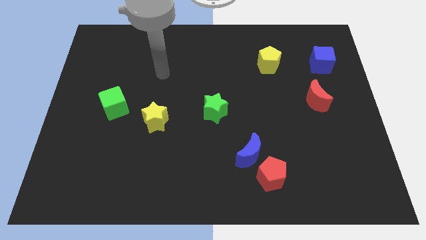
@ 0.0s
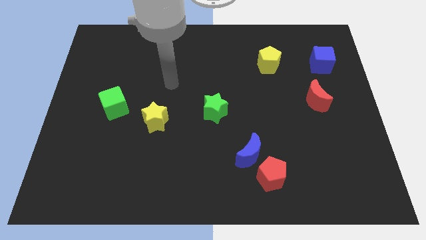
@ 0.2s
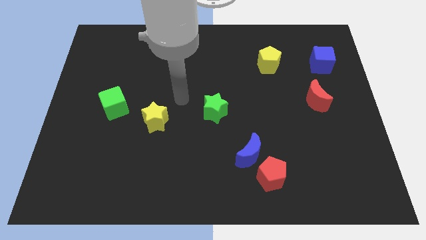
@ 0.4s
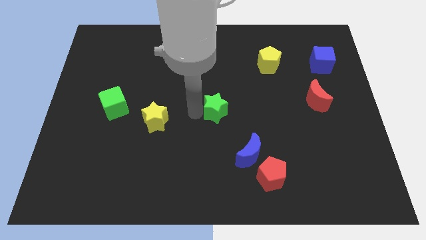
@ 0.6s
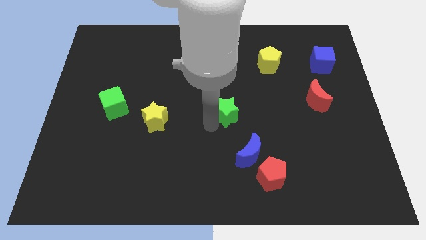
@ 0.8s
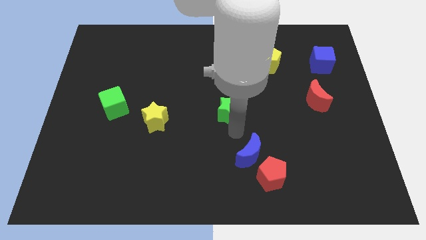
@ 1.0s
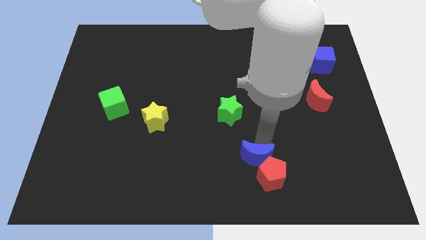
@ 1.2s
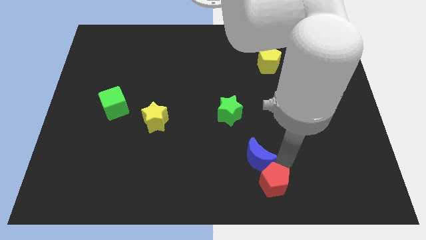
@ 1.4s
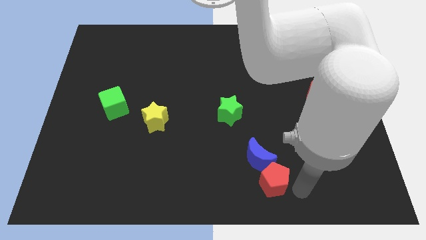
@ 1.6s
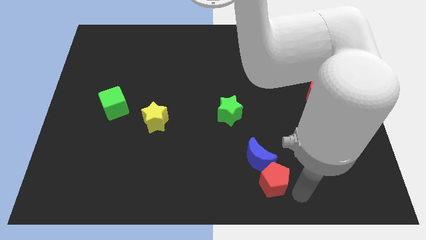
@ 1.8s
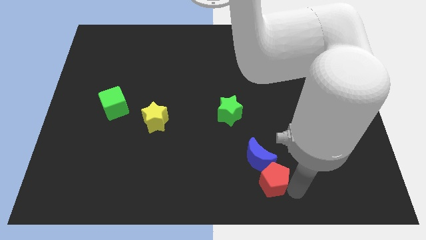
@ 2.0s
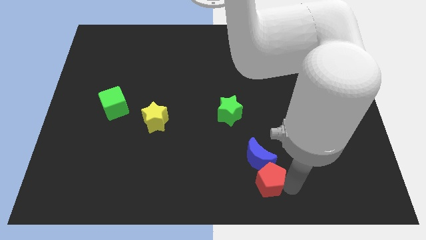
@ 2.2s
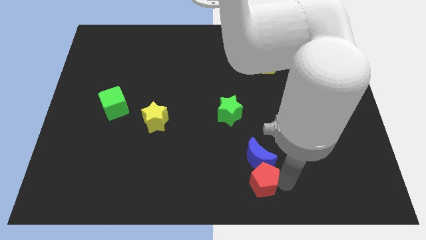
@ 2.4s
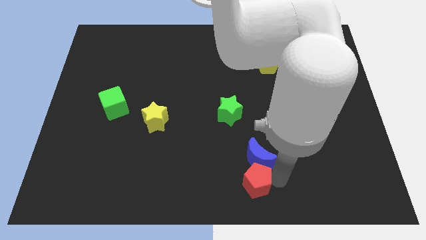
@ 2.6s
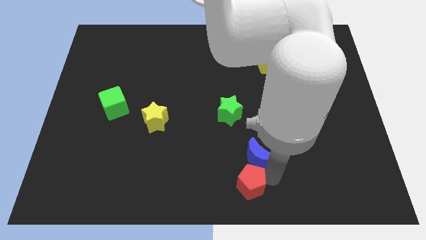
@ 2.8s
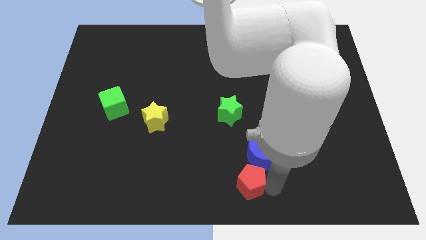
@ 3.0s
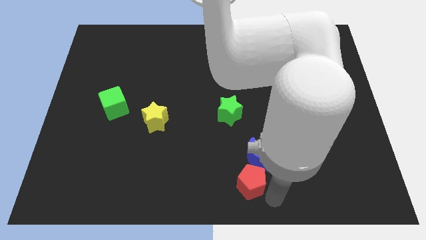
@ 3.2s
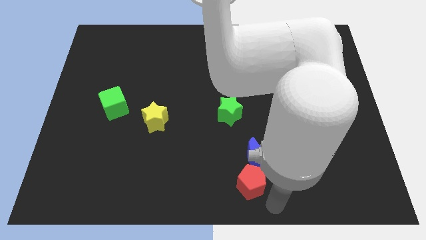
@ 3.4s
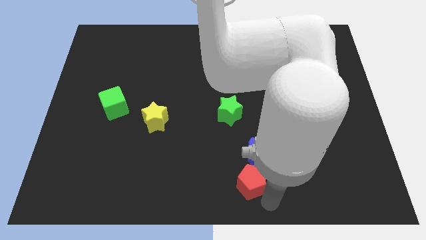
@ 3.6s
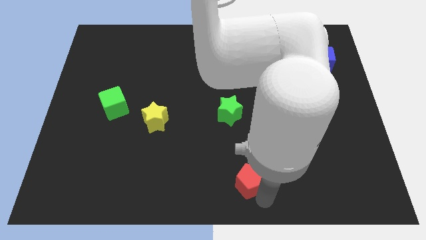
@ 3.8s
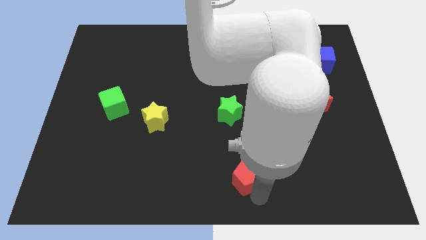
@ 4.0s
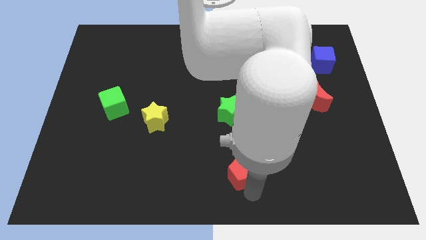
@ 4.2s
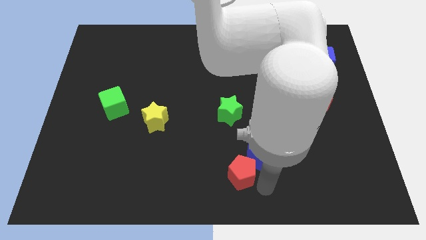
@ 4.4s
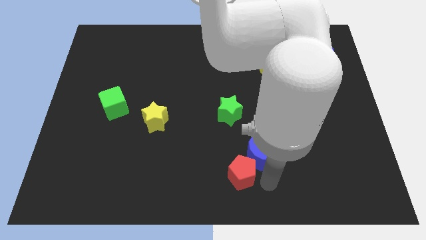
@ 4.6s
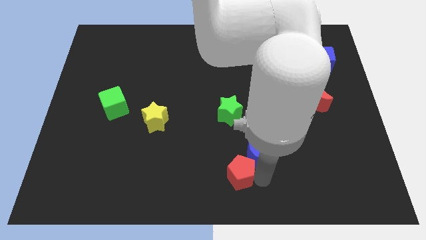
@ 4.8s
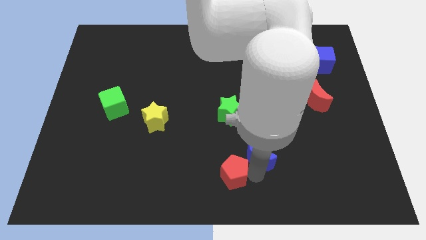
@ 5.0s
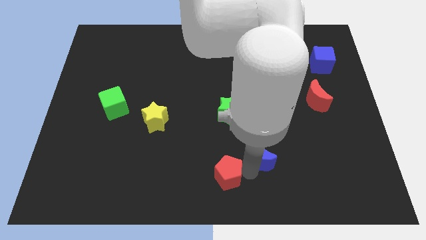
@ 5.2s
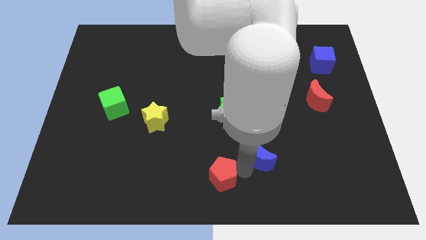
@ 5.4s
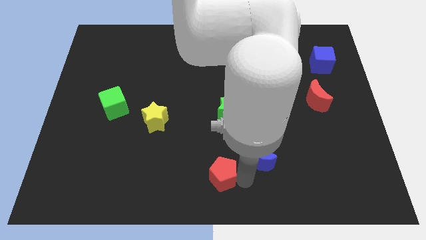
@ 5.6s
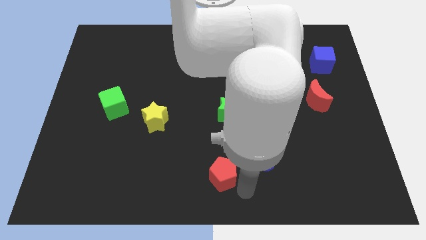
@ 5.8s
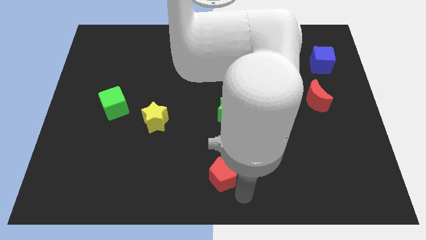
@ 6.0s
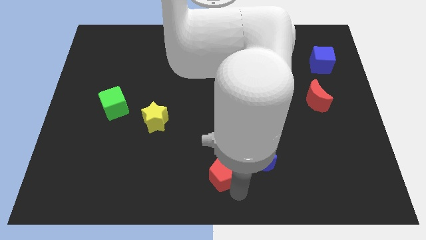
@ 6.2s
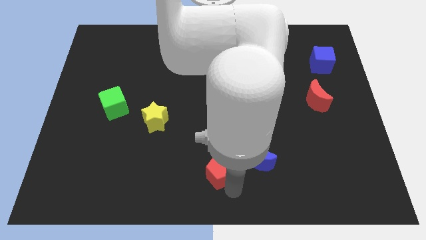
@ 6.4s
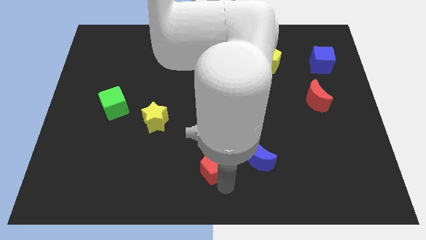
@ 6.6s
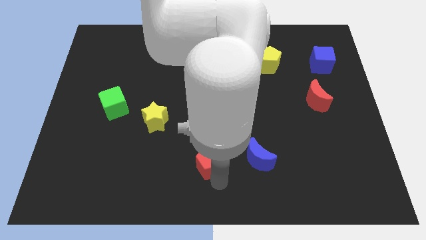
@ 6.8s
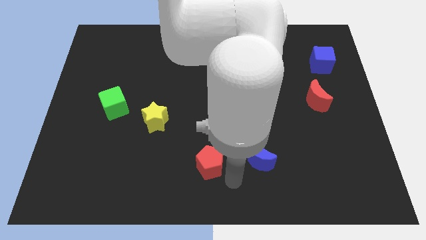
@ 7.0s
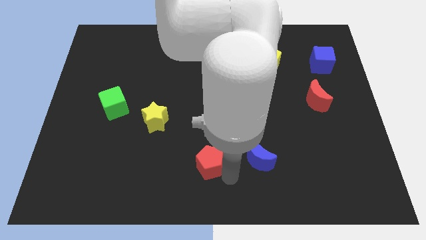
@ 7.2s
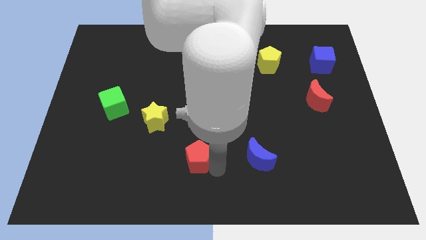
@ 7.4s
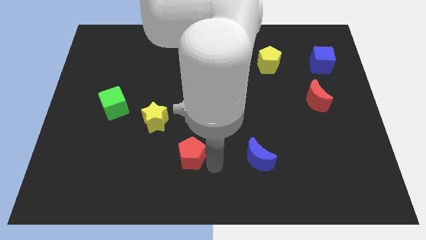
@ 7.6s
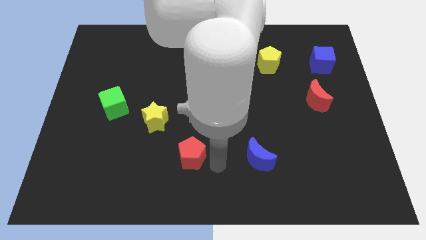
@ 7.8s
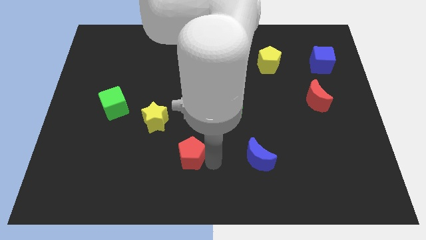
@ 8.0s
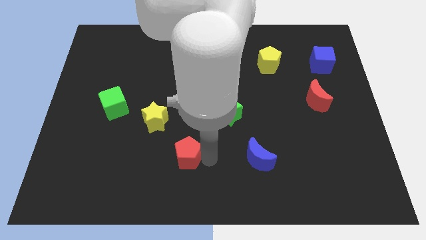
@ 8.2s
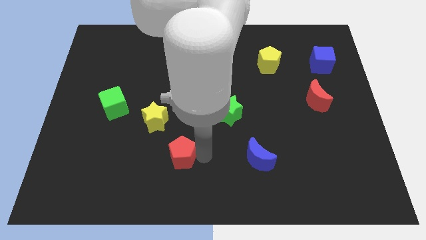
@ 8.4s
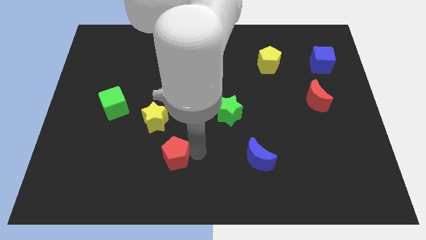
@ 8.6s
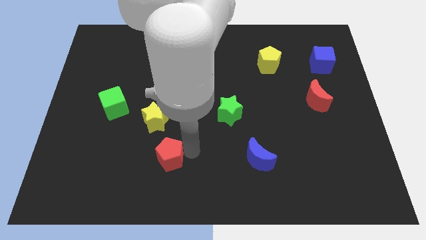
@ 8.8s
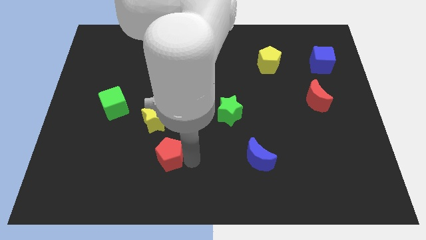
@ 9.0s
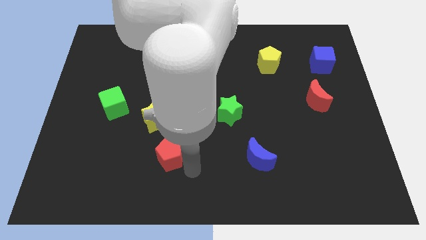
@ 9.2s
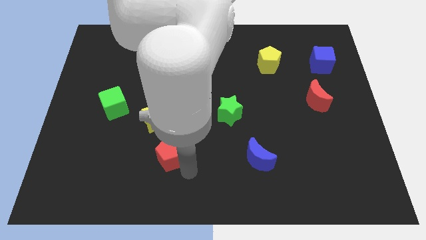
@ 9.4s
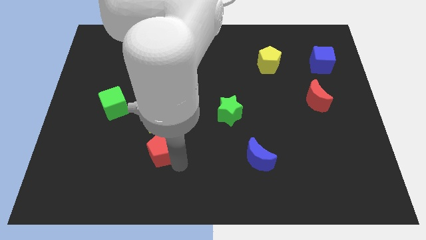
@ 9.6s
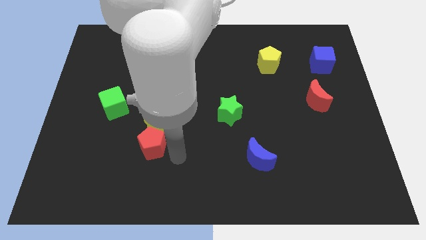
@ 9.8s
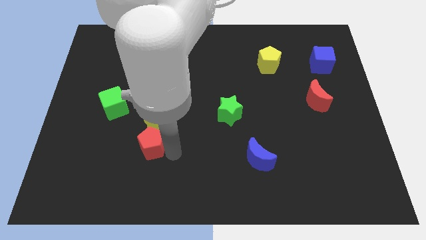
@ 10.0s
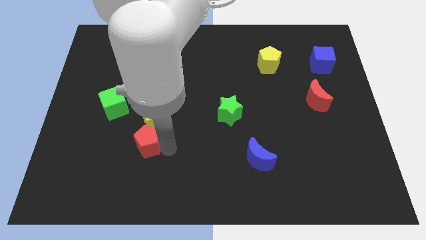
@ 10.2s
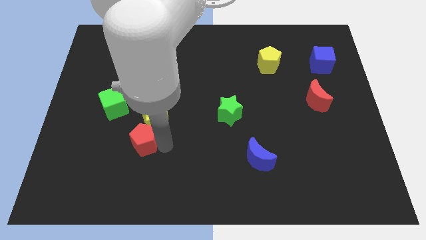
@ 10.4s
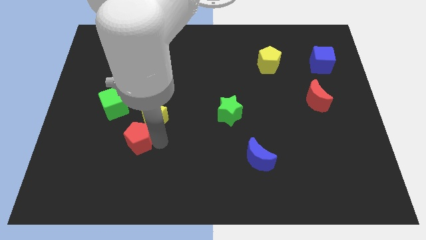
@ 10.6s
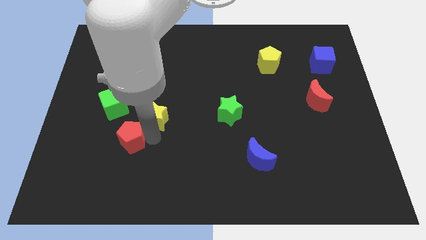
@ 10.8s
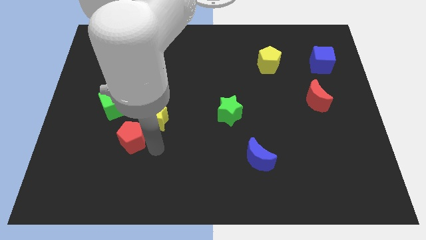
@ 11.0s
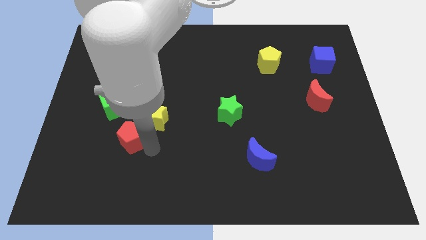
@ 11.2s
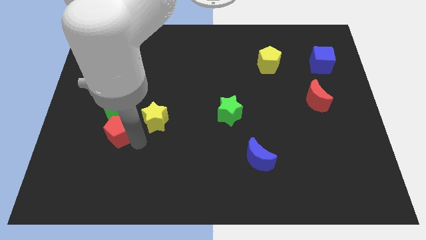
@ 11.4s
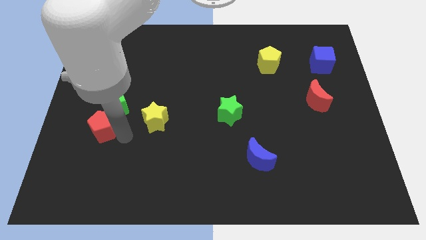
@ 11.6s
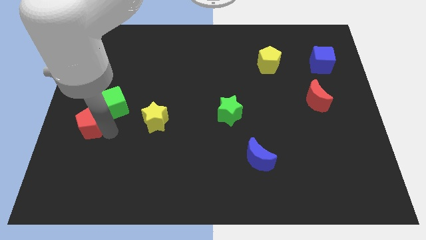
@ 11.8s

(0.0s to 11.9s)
slide the red pentagon to the left side of the board

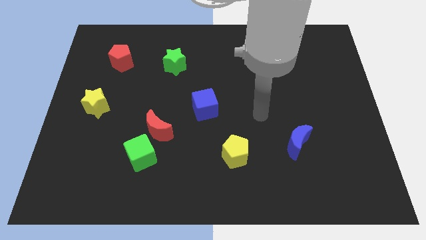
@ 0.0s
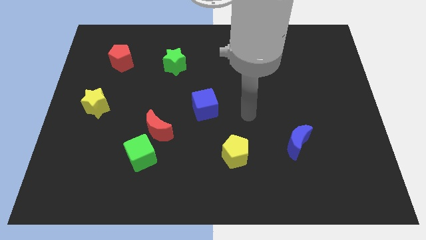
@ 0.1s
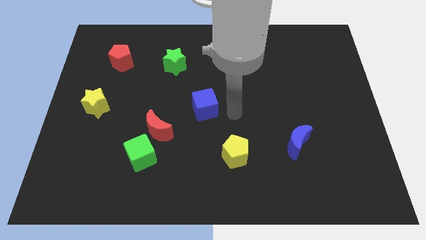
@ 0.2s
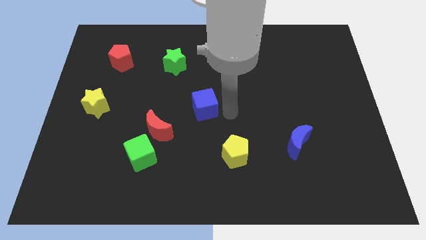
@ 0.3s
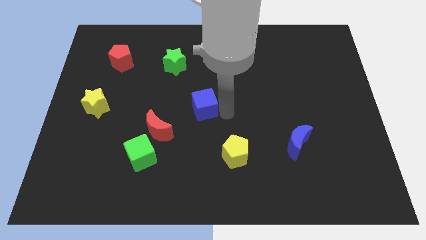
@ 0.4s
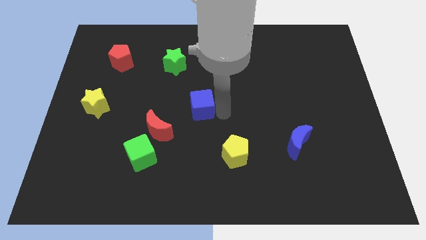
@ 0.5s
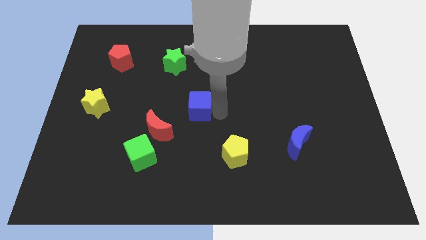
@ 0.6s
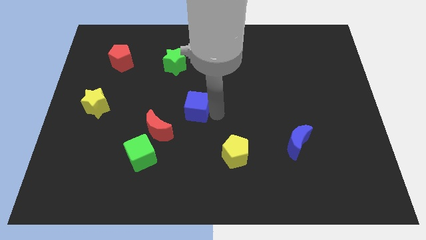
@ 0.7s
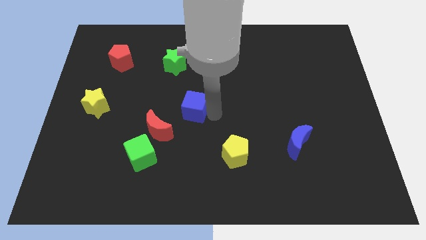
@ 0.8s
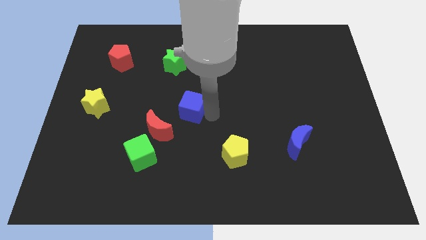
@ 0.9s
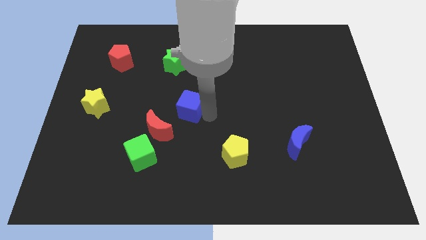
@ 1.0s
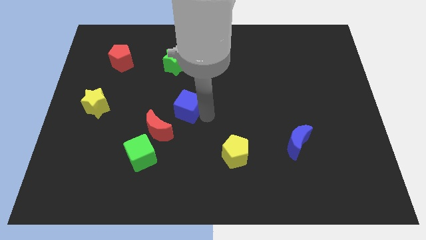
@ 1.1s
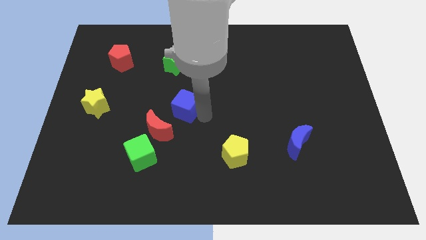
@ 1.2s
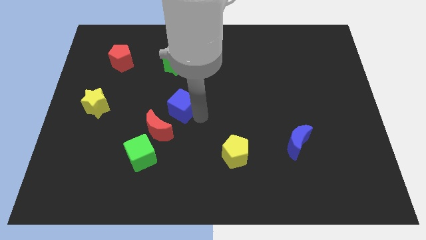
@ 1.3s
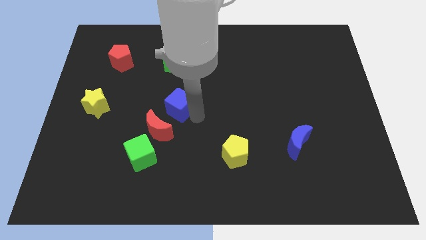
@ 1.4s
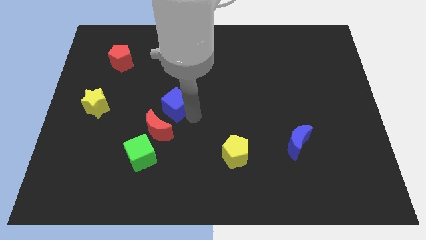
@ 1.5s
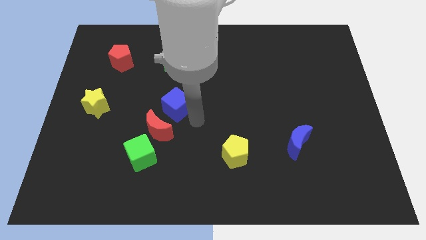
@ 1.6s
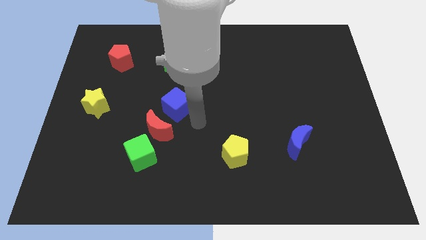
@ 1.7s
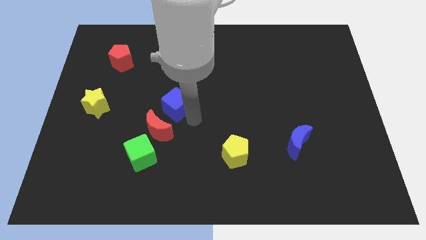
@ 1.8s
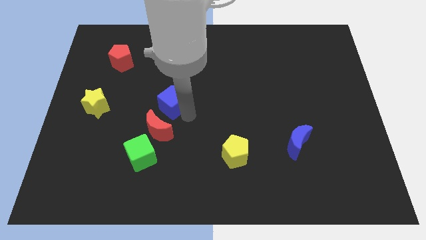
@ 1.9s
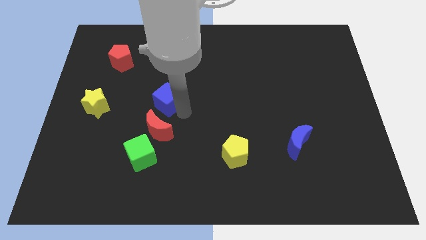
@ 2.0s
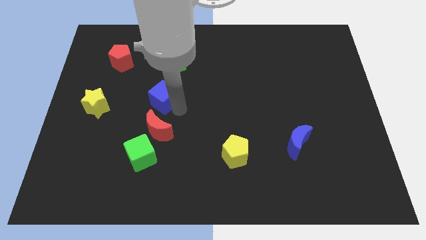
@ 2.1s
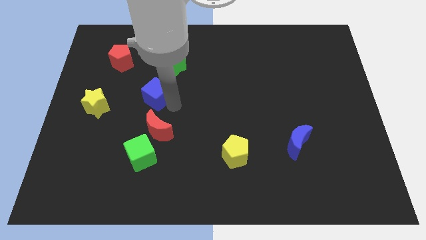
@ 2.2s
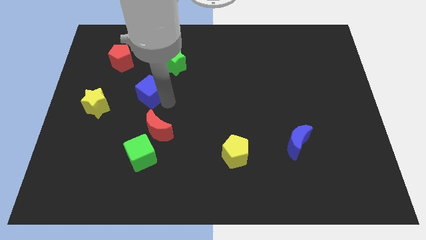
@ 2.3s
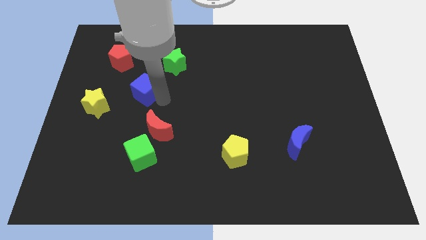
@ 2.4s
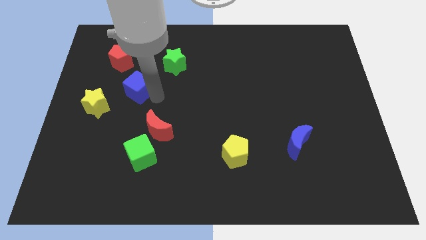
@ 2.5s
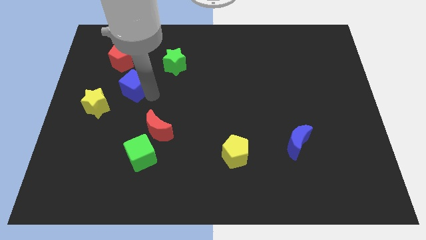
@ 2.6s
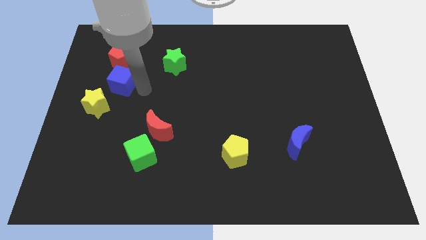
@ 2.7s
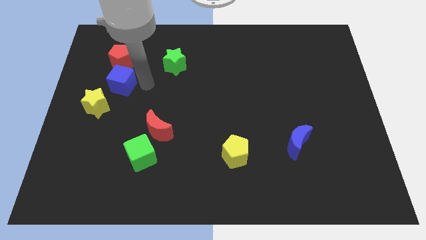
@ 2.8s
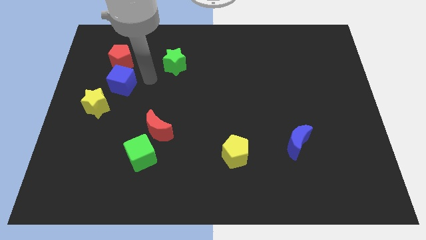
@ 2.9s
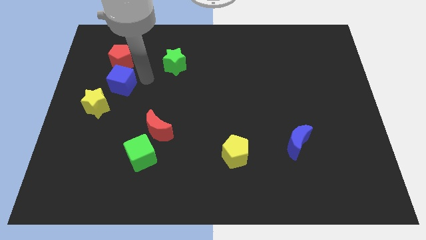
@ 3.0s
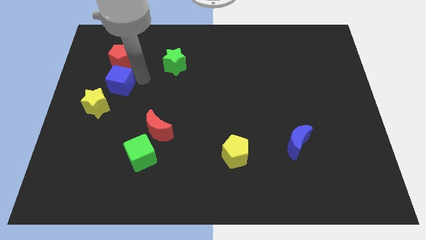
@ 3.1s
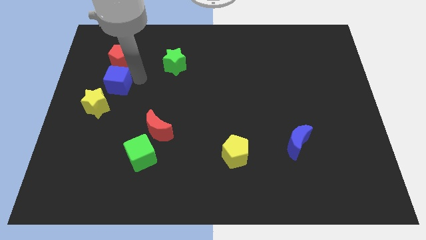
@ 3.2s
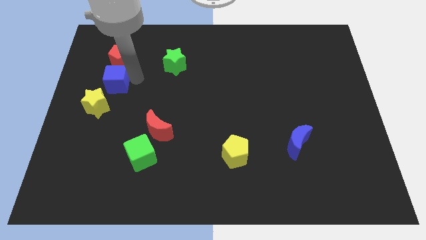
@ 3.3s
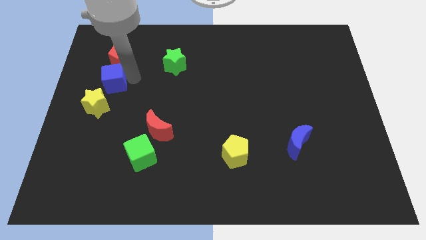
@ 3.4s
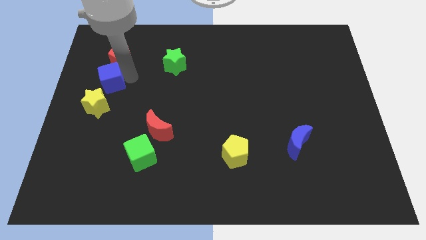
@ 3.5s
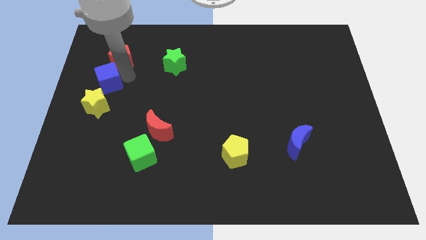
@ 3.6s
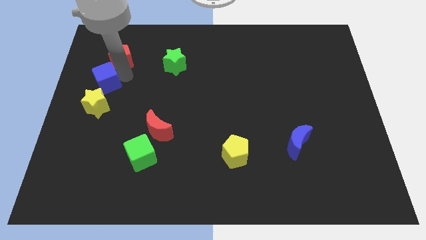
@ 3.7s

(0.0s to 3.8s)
put the blue cube to the left side
